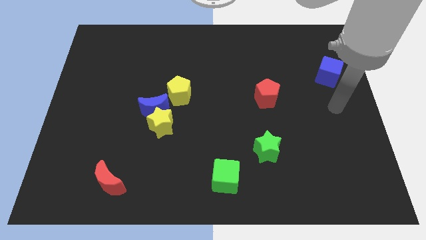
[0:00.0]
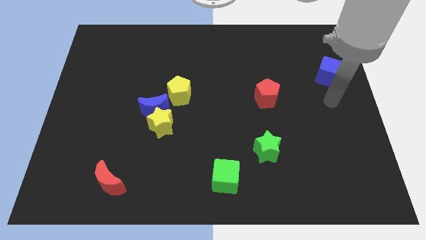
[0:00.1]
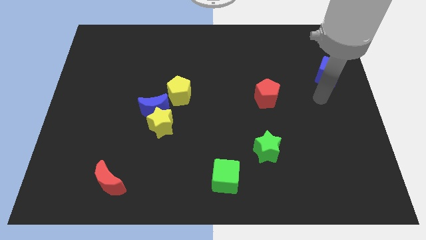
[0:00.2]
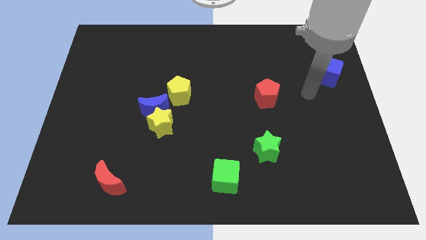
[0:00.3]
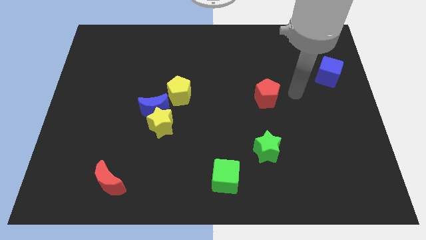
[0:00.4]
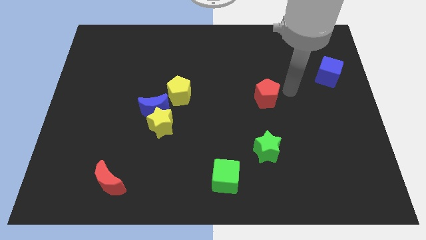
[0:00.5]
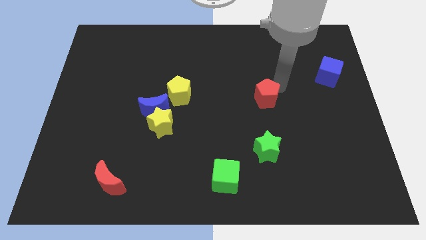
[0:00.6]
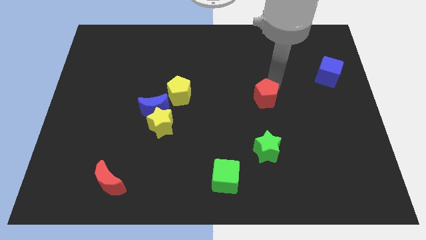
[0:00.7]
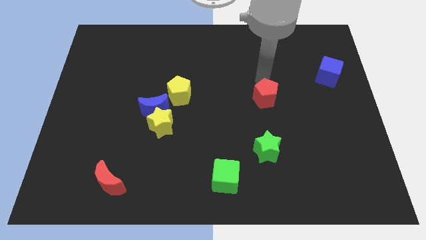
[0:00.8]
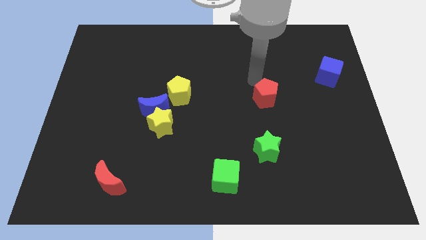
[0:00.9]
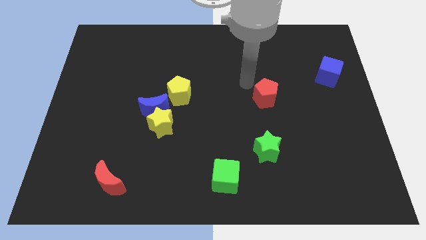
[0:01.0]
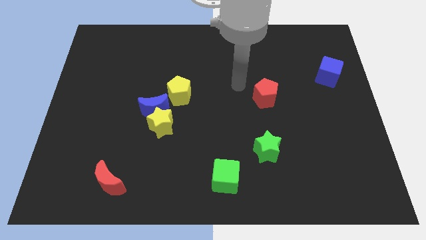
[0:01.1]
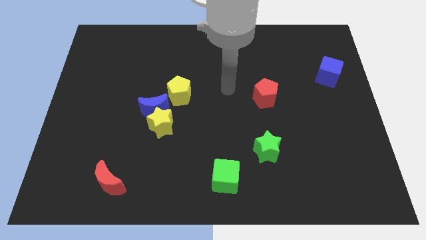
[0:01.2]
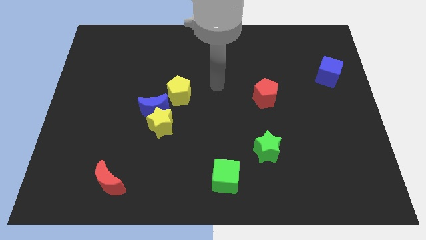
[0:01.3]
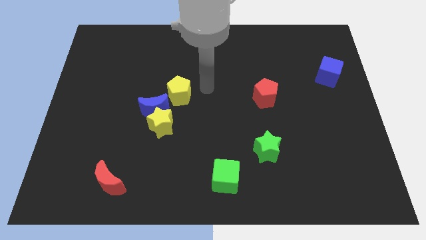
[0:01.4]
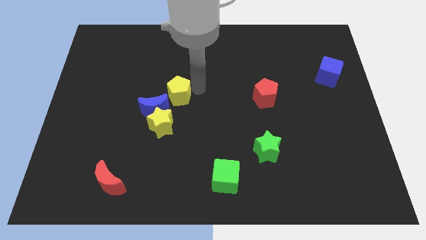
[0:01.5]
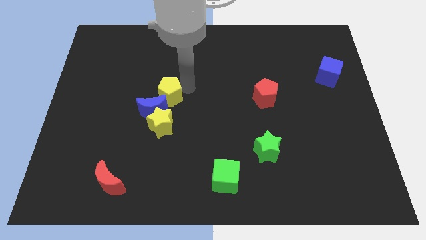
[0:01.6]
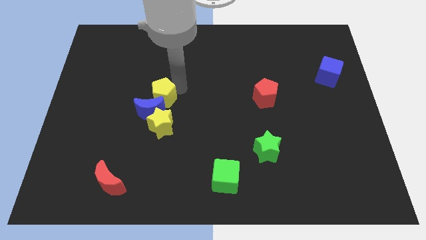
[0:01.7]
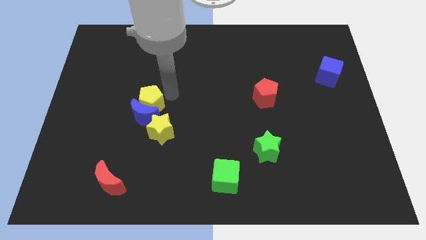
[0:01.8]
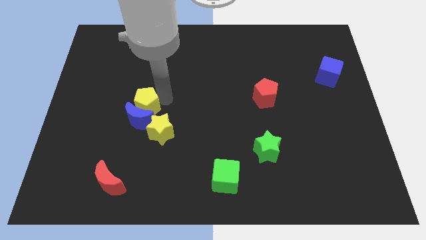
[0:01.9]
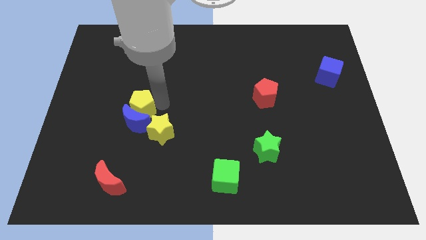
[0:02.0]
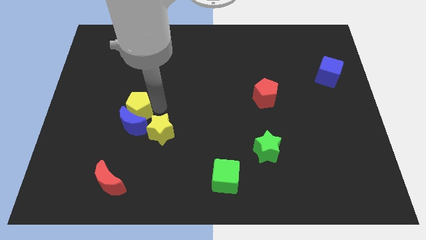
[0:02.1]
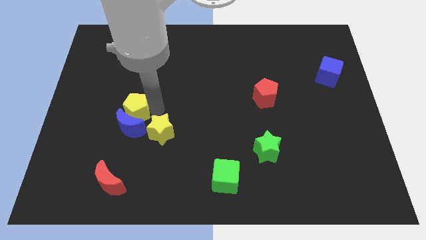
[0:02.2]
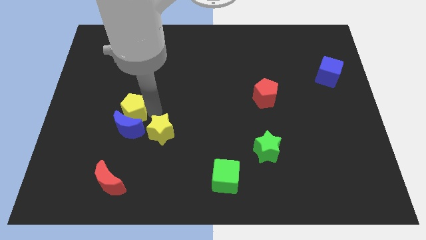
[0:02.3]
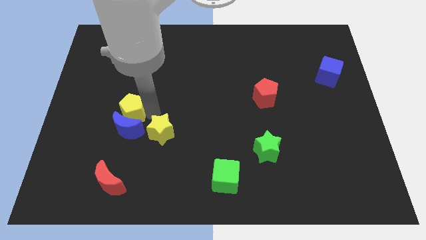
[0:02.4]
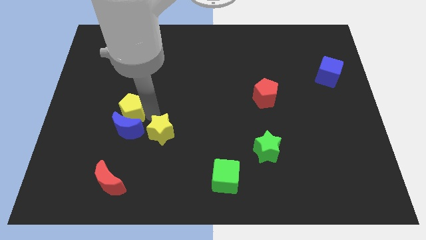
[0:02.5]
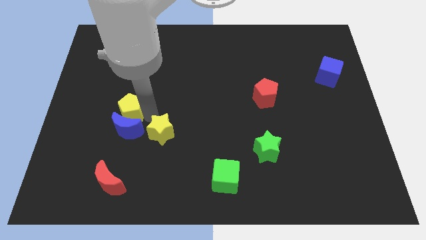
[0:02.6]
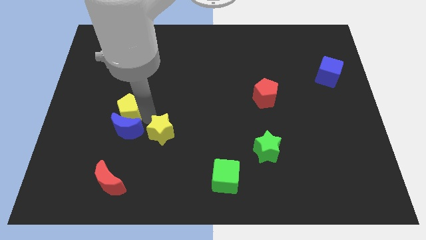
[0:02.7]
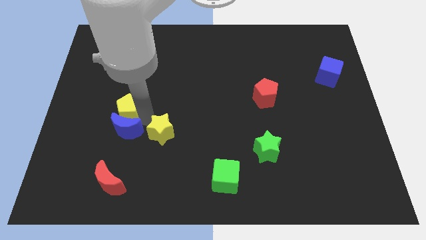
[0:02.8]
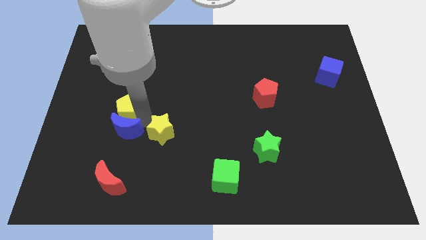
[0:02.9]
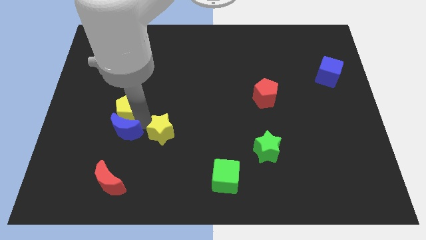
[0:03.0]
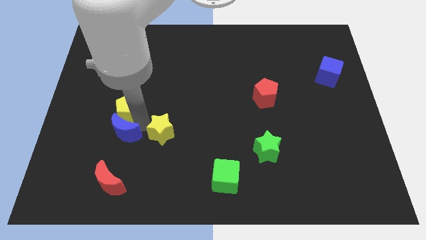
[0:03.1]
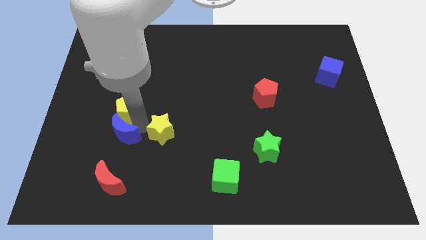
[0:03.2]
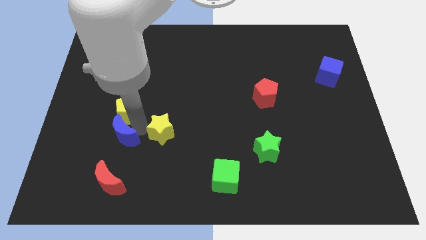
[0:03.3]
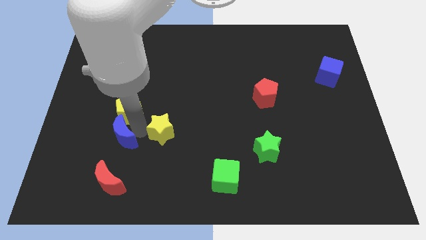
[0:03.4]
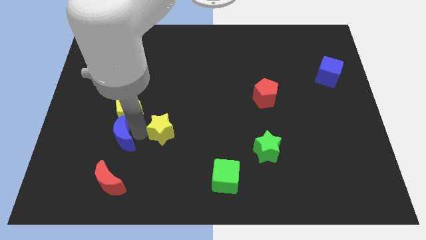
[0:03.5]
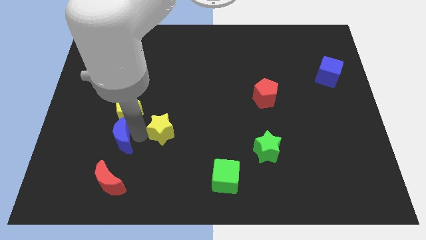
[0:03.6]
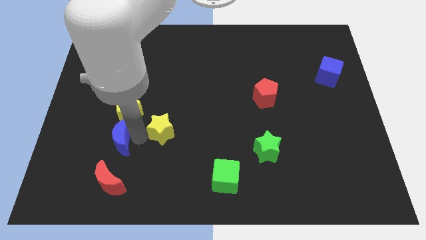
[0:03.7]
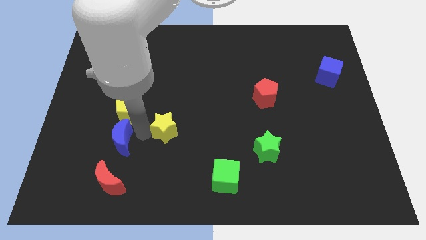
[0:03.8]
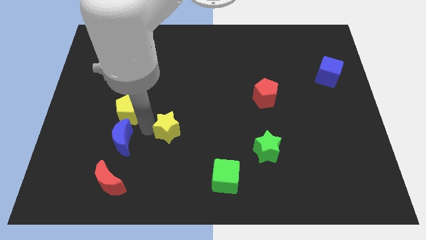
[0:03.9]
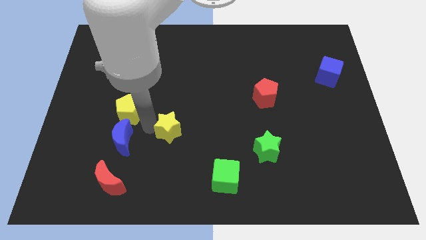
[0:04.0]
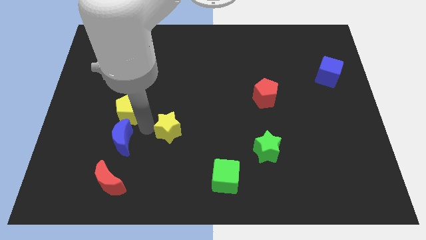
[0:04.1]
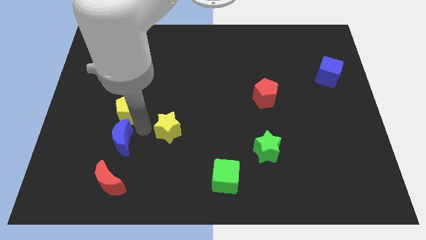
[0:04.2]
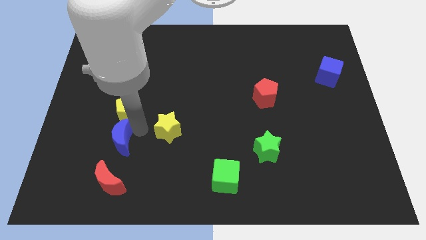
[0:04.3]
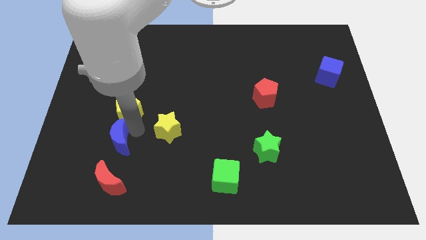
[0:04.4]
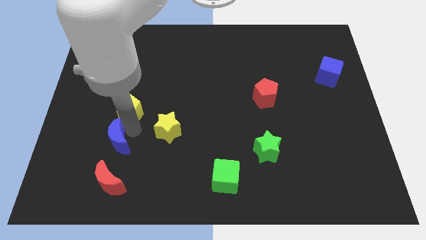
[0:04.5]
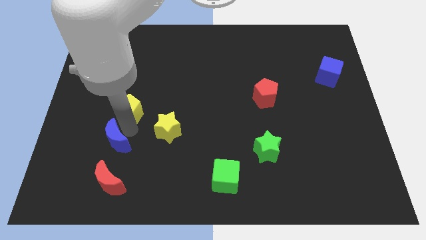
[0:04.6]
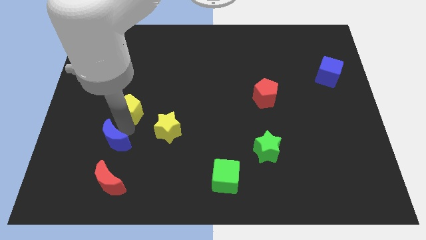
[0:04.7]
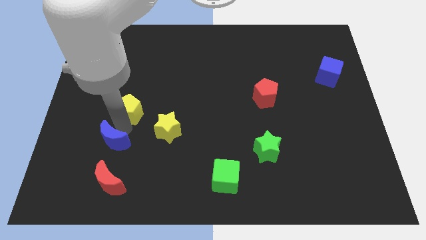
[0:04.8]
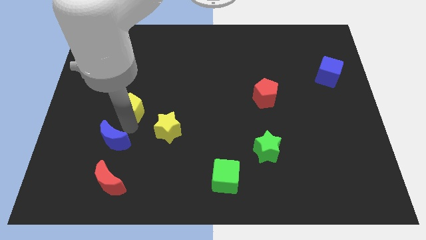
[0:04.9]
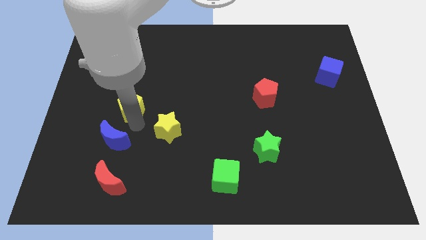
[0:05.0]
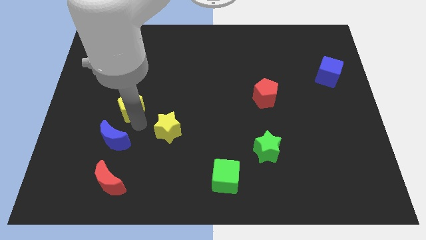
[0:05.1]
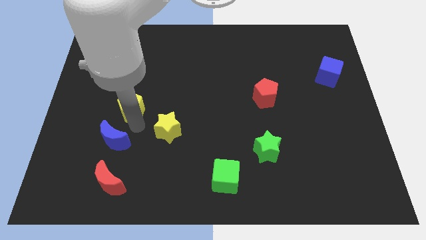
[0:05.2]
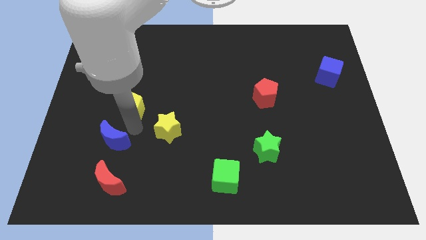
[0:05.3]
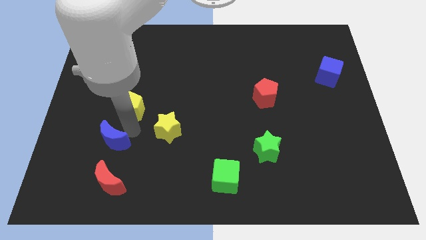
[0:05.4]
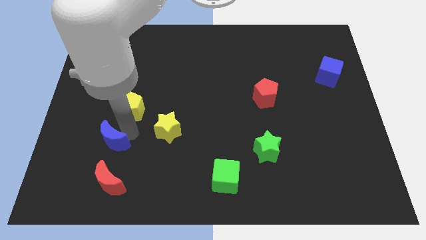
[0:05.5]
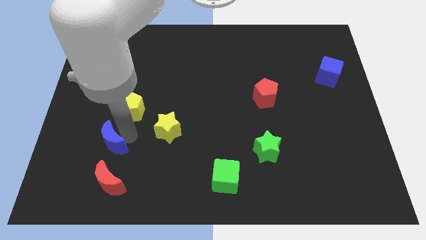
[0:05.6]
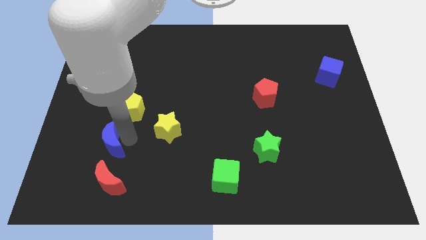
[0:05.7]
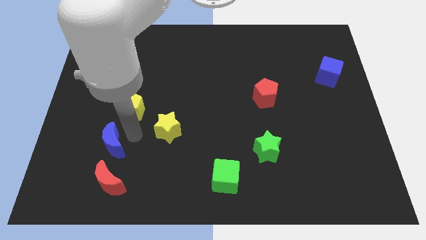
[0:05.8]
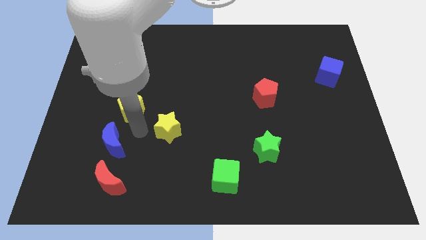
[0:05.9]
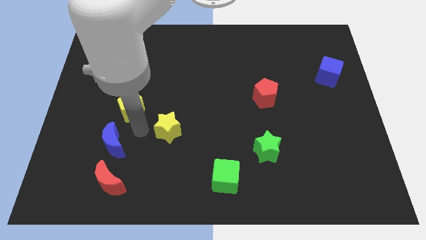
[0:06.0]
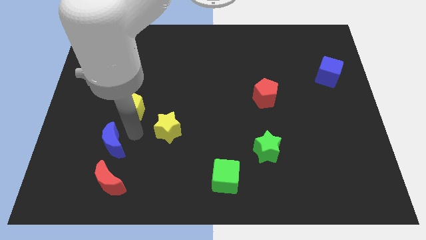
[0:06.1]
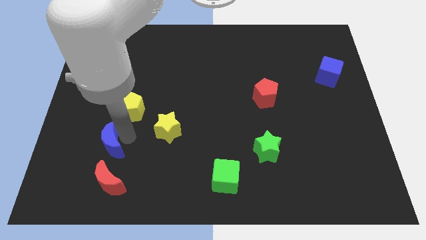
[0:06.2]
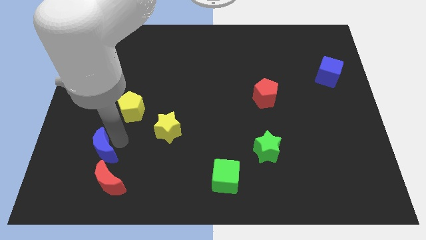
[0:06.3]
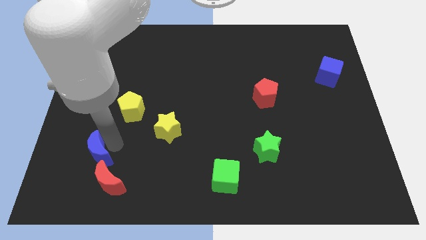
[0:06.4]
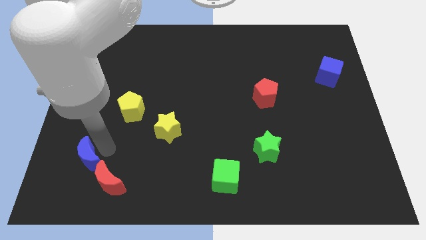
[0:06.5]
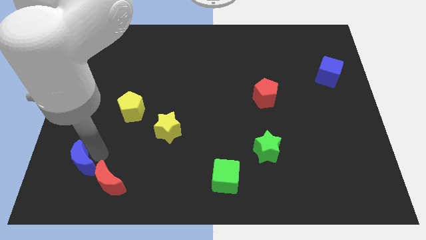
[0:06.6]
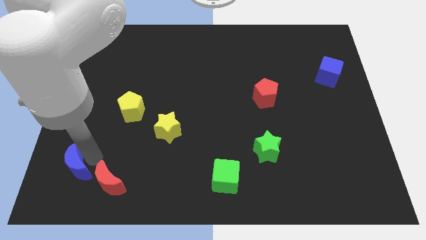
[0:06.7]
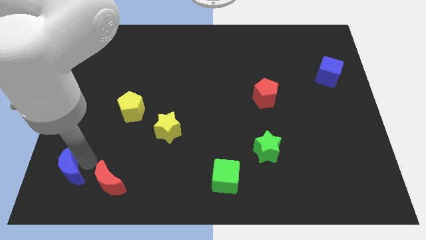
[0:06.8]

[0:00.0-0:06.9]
put the blue moon to the bottom left corner

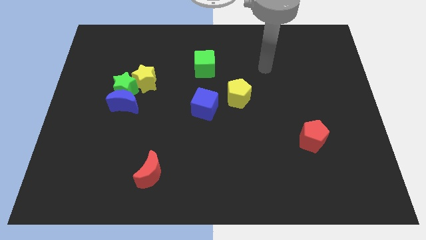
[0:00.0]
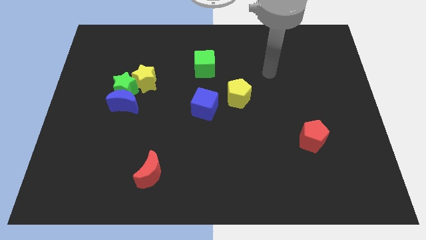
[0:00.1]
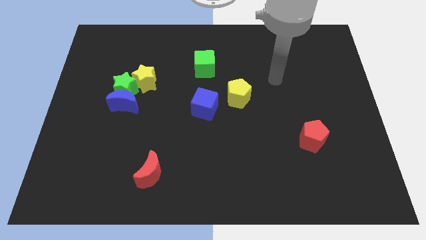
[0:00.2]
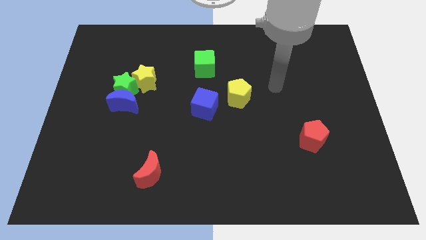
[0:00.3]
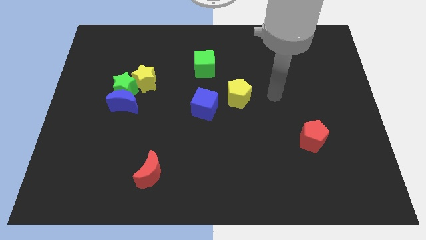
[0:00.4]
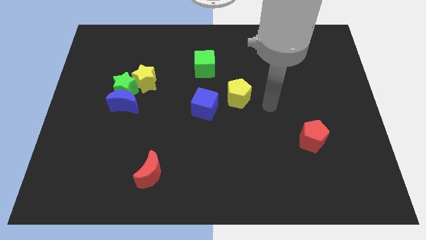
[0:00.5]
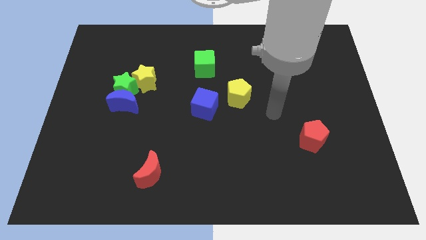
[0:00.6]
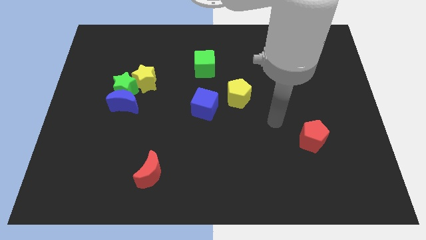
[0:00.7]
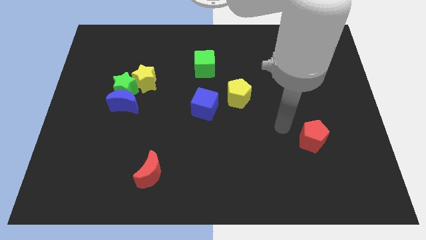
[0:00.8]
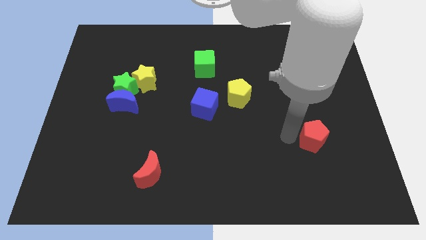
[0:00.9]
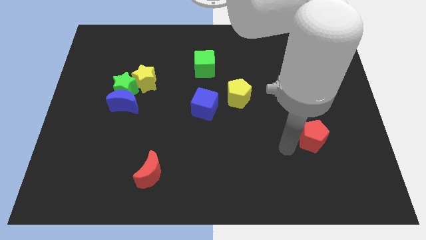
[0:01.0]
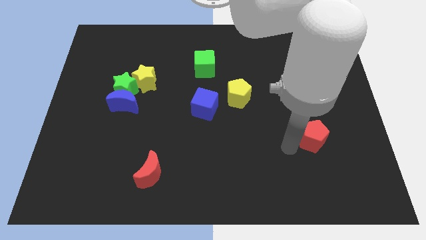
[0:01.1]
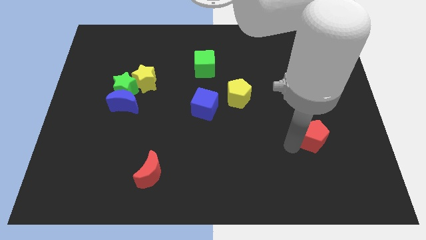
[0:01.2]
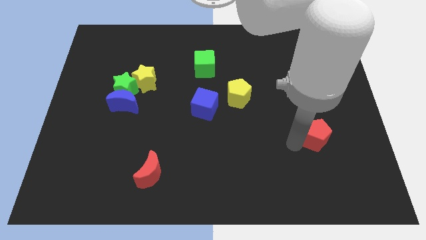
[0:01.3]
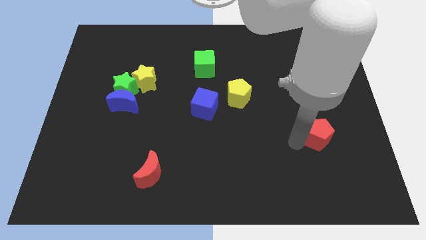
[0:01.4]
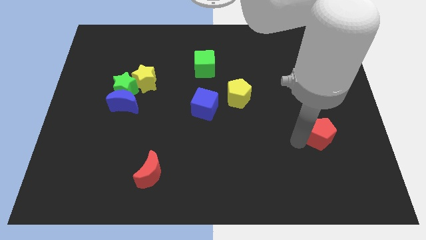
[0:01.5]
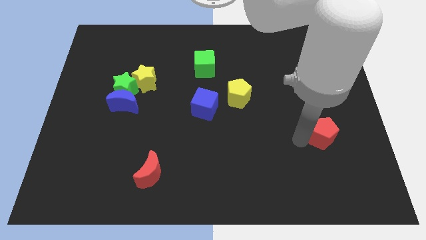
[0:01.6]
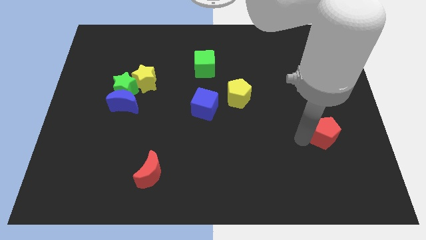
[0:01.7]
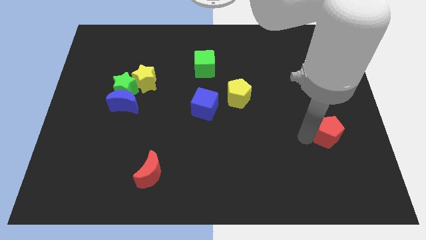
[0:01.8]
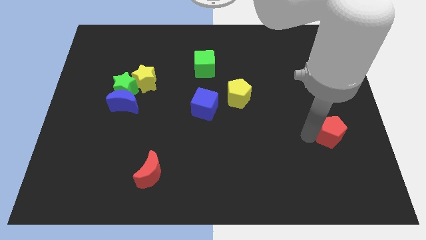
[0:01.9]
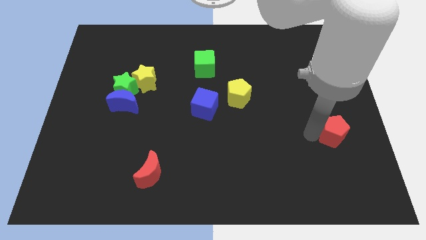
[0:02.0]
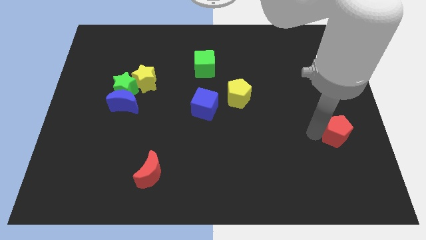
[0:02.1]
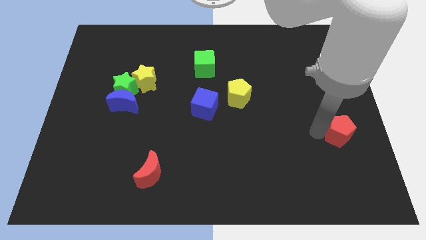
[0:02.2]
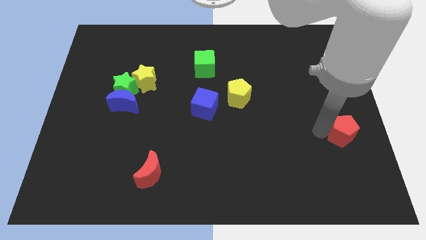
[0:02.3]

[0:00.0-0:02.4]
put the red pentagon to the right side of the board
